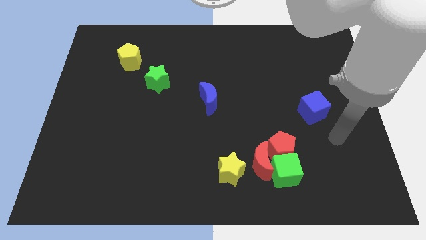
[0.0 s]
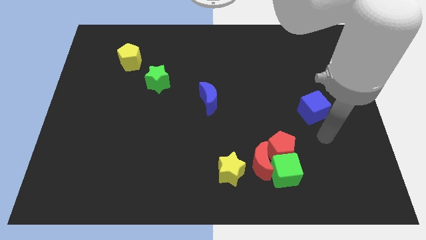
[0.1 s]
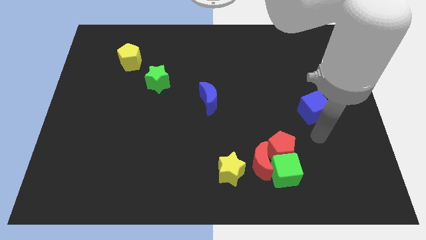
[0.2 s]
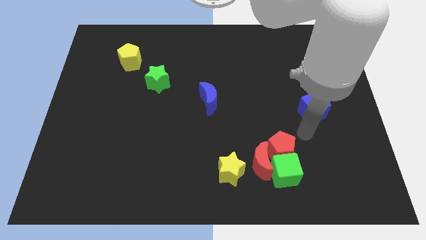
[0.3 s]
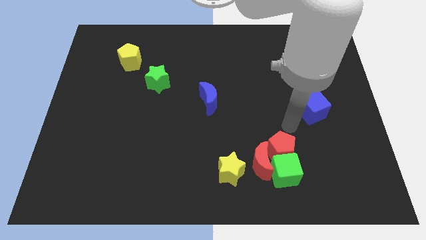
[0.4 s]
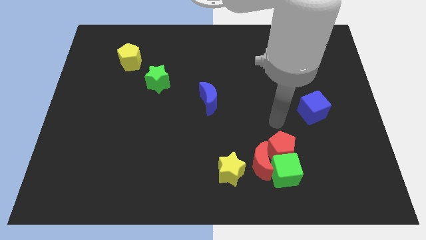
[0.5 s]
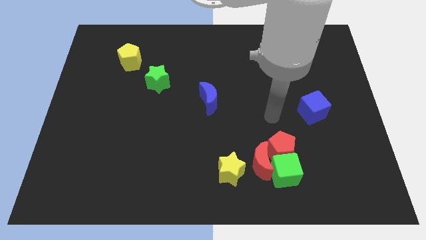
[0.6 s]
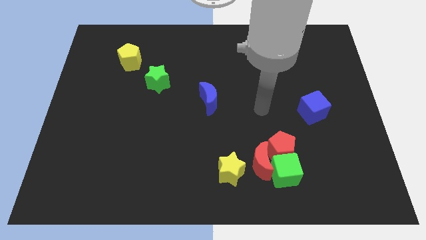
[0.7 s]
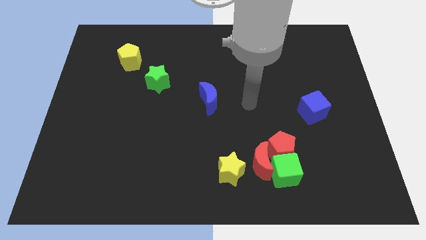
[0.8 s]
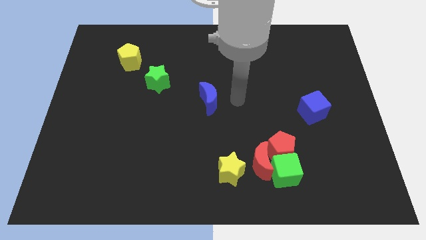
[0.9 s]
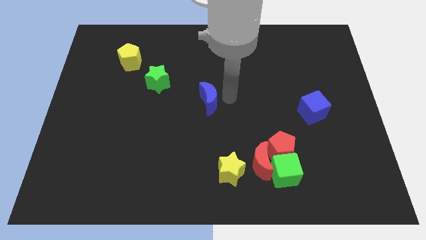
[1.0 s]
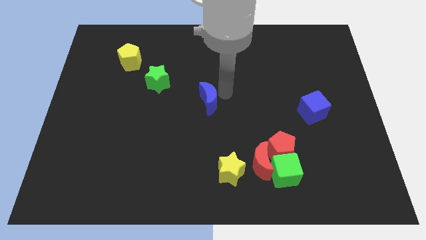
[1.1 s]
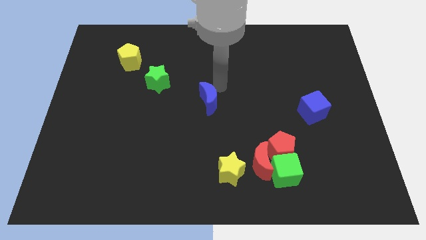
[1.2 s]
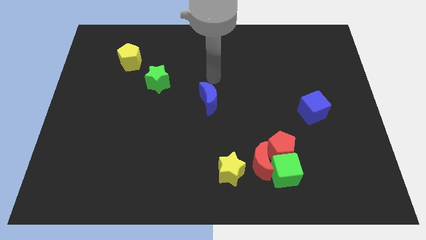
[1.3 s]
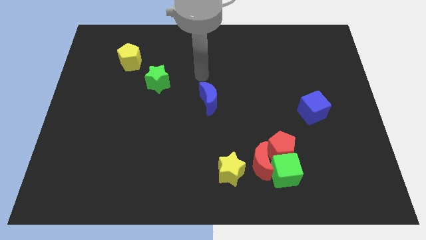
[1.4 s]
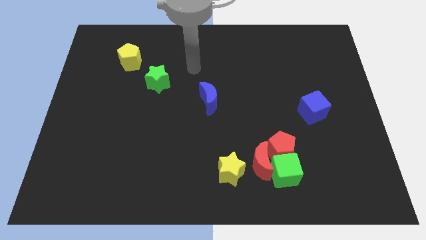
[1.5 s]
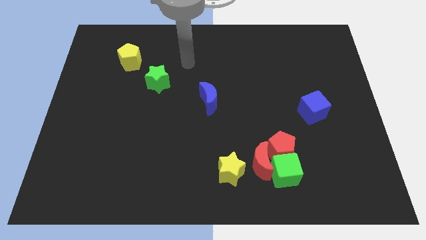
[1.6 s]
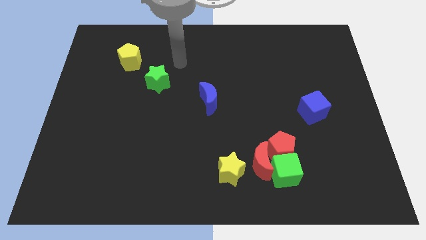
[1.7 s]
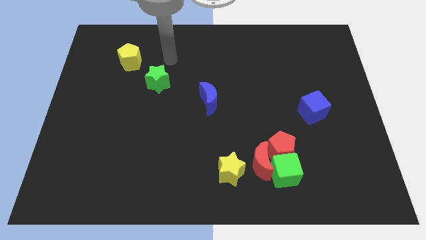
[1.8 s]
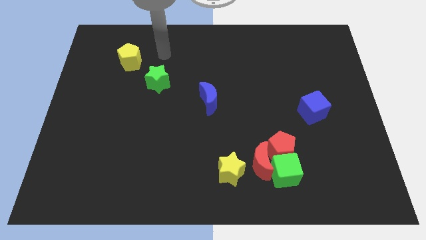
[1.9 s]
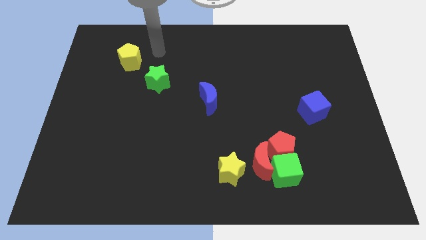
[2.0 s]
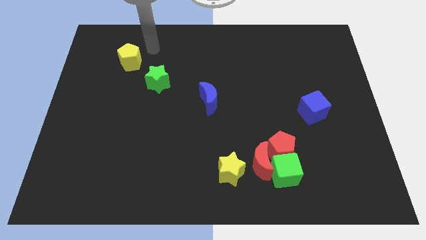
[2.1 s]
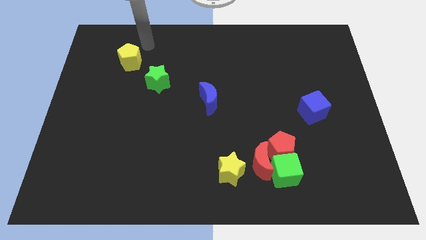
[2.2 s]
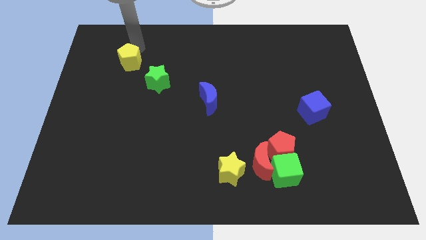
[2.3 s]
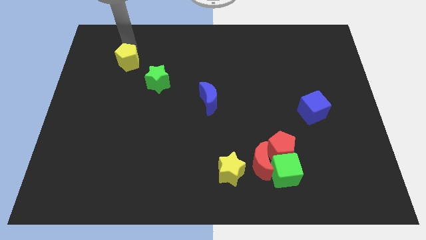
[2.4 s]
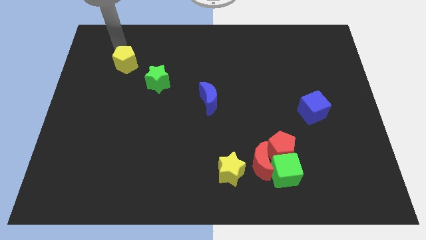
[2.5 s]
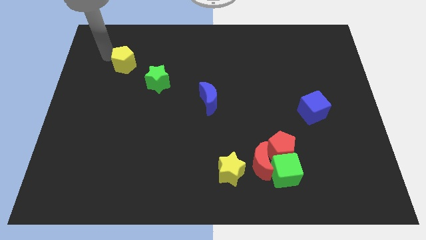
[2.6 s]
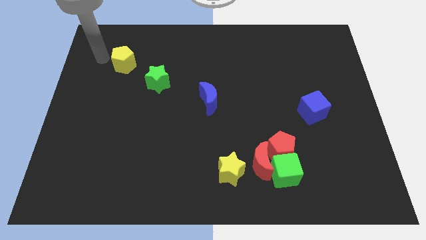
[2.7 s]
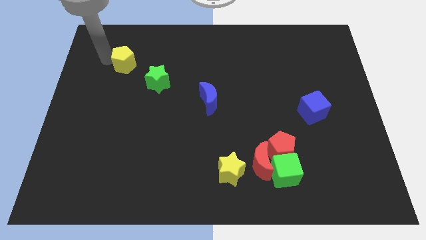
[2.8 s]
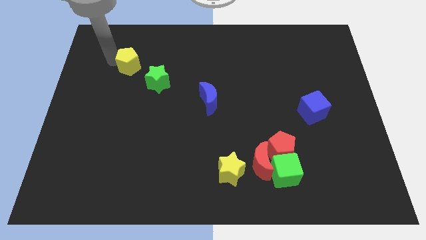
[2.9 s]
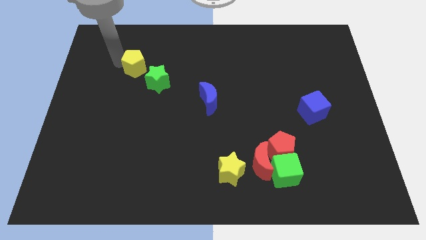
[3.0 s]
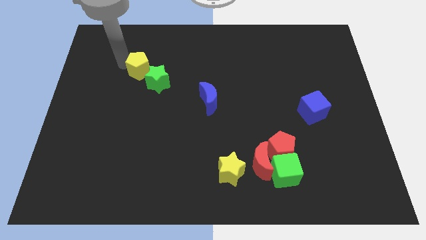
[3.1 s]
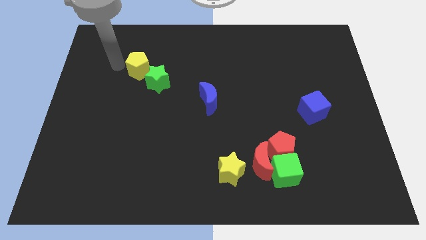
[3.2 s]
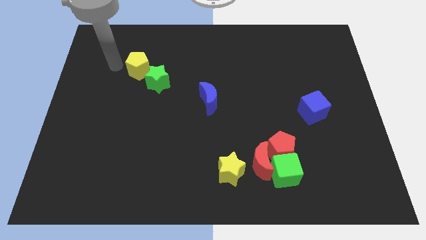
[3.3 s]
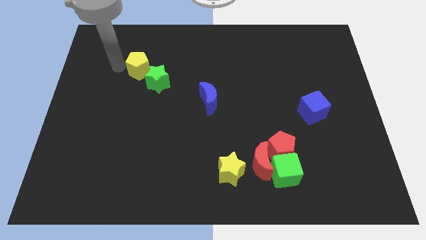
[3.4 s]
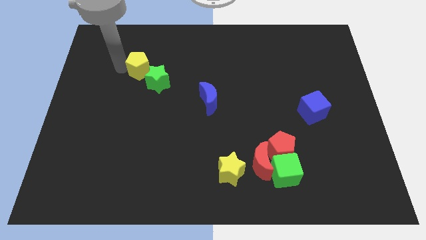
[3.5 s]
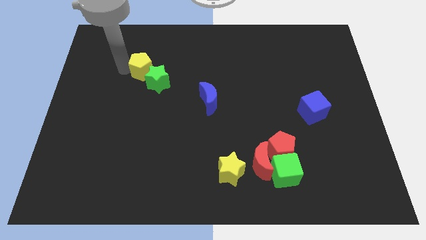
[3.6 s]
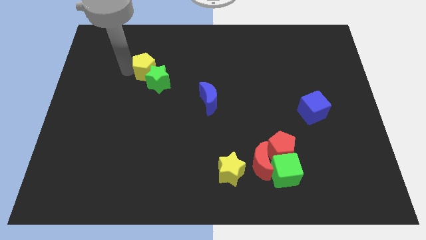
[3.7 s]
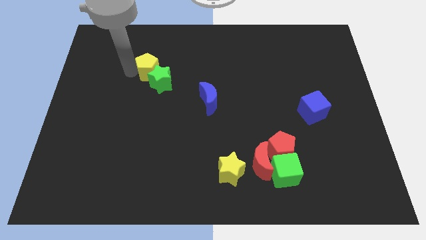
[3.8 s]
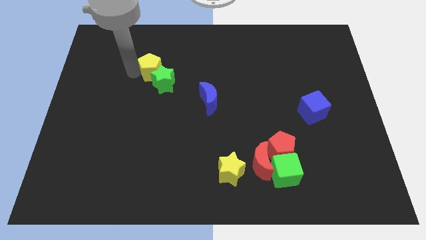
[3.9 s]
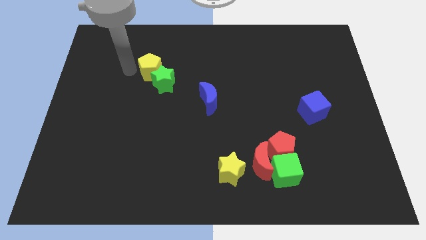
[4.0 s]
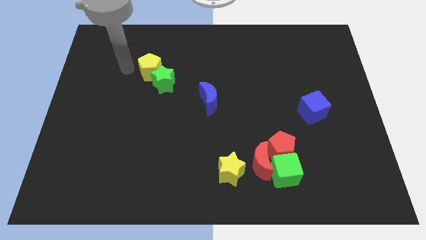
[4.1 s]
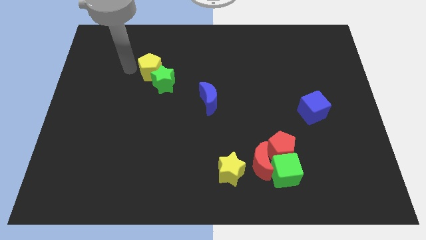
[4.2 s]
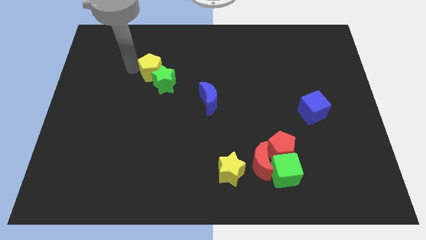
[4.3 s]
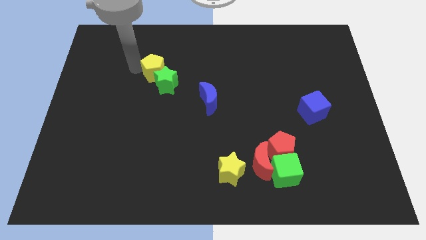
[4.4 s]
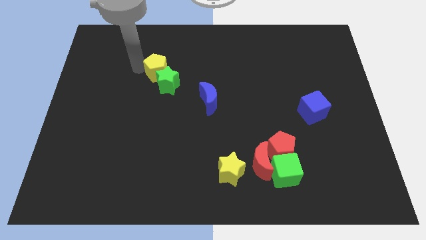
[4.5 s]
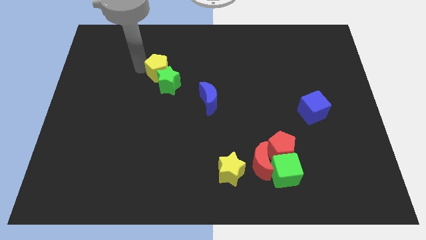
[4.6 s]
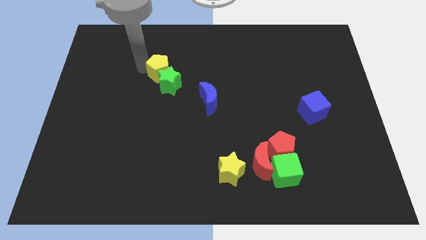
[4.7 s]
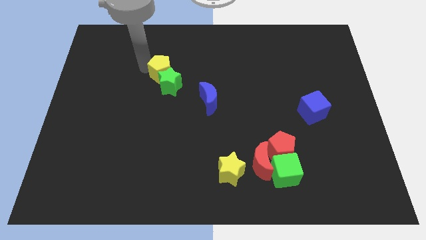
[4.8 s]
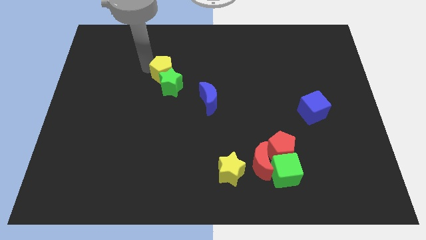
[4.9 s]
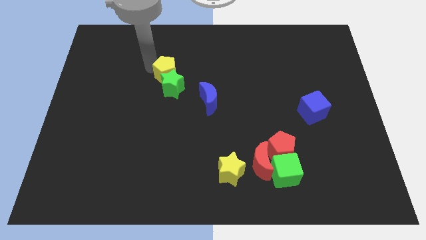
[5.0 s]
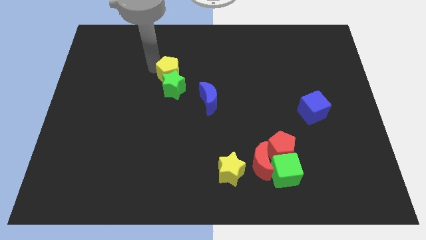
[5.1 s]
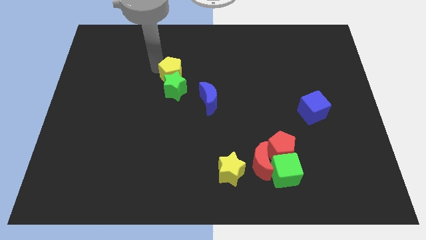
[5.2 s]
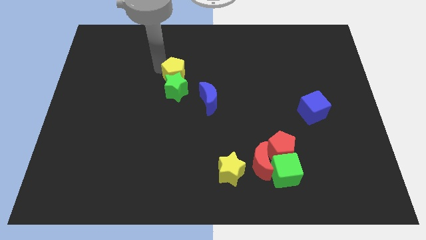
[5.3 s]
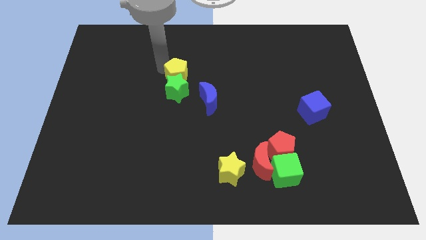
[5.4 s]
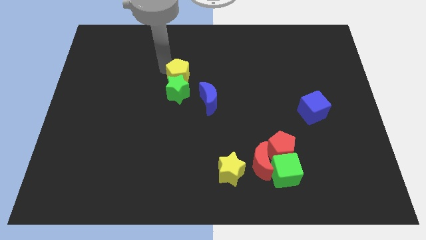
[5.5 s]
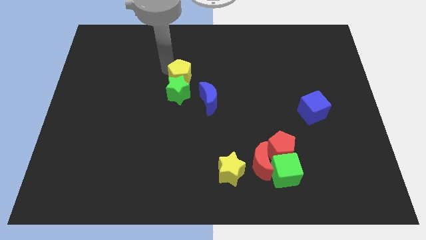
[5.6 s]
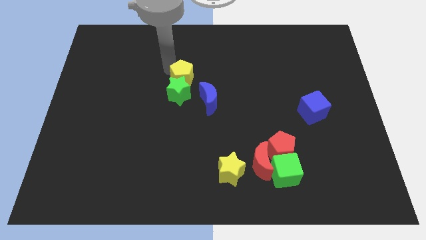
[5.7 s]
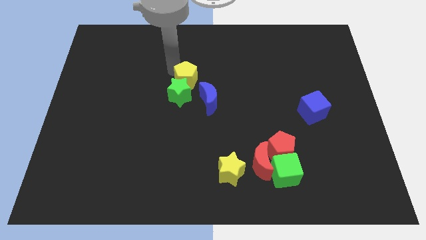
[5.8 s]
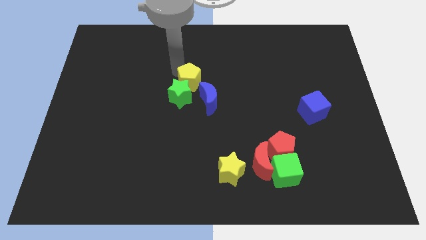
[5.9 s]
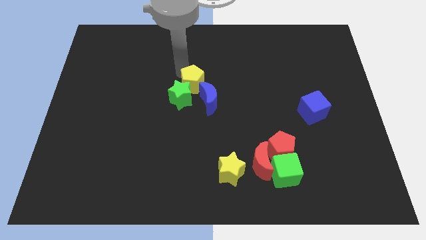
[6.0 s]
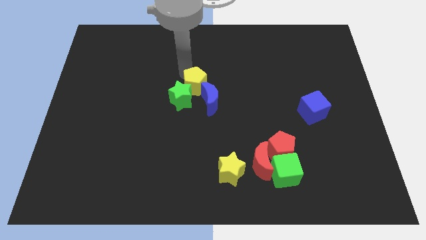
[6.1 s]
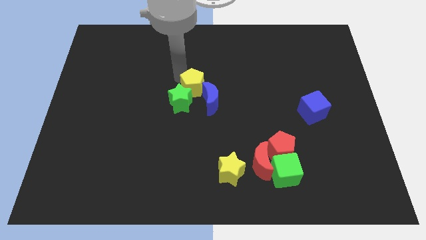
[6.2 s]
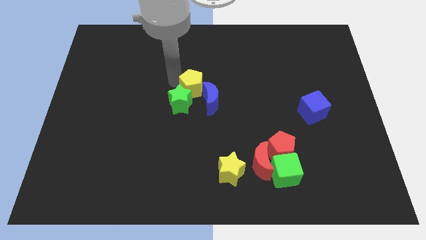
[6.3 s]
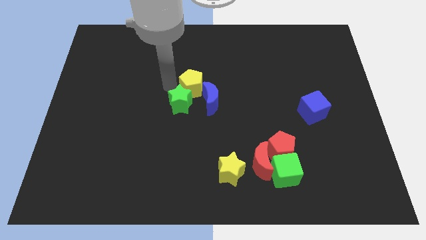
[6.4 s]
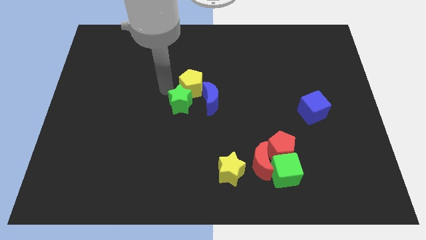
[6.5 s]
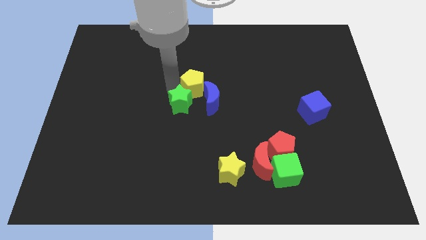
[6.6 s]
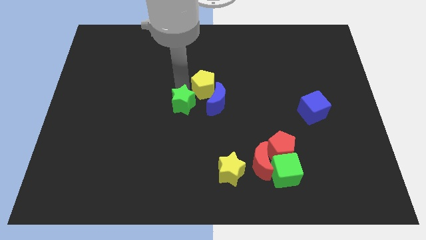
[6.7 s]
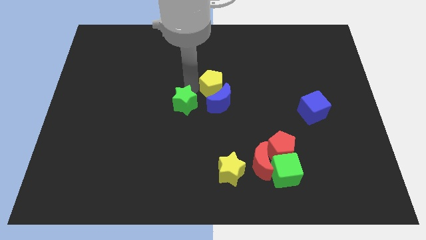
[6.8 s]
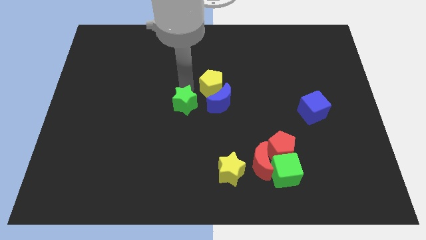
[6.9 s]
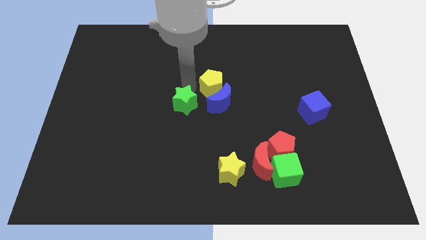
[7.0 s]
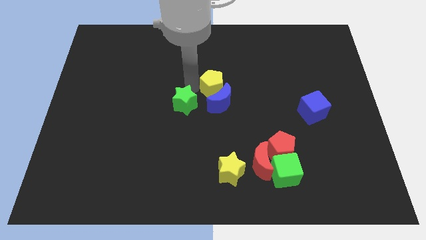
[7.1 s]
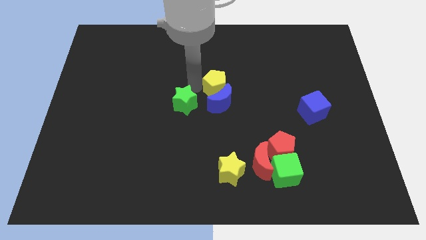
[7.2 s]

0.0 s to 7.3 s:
put the yellow pentagon diagonally up and to the right of the blue moon
